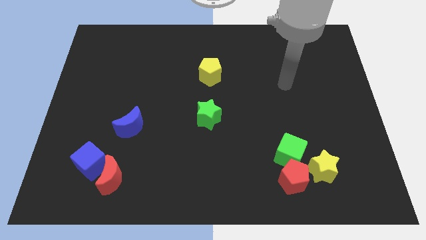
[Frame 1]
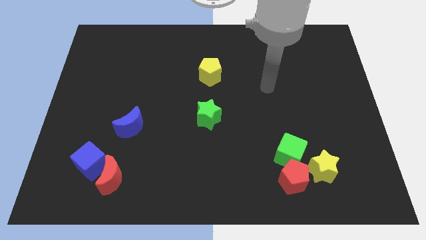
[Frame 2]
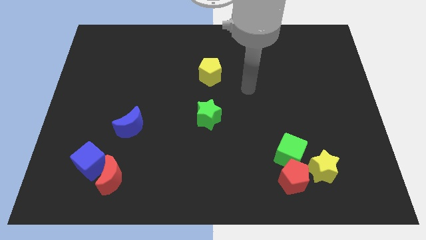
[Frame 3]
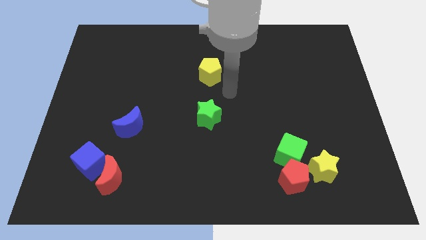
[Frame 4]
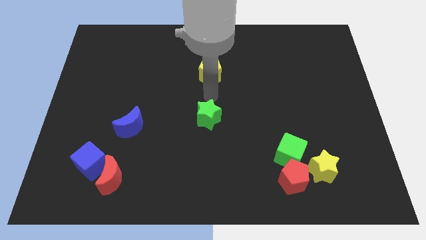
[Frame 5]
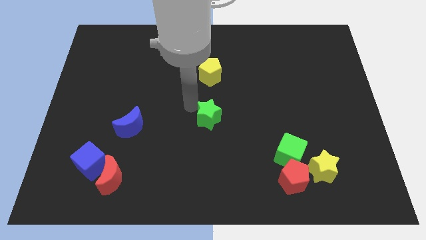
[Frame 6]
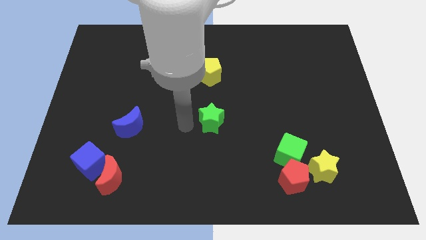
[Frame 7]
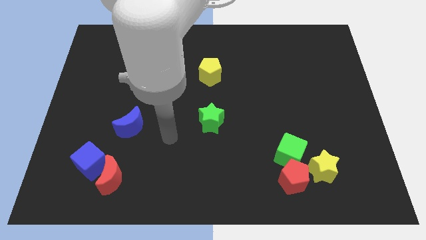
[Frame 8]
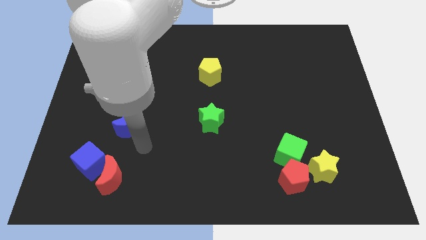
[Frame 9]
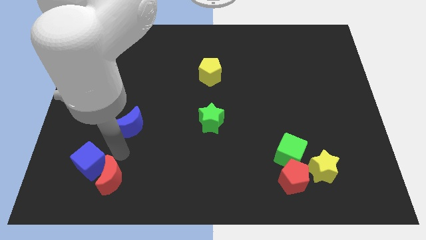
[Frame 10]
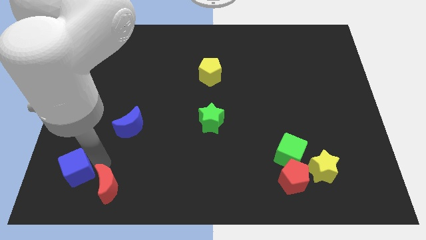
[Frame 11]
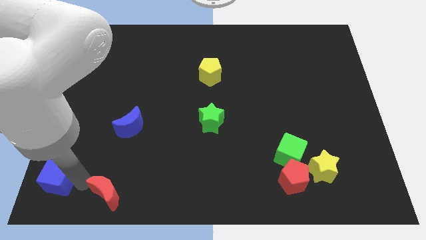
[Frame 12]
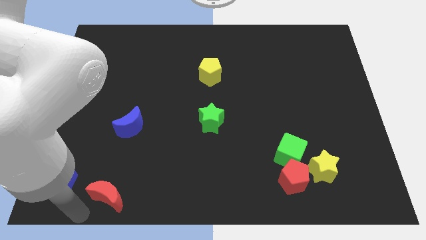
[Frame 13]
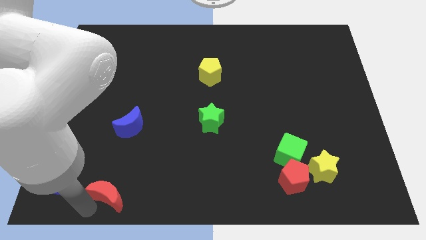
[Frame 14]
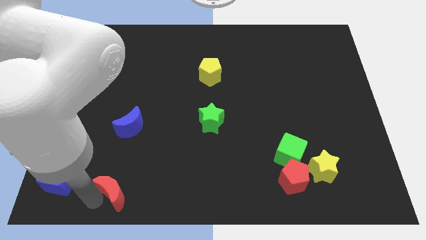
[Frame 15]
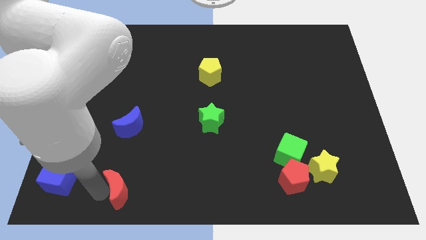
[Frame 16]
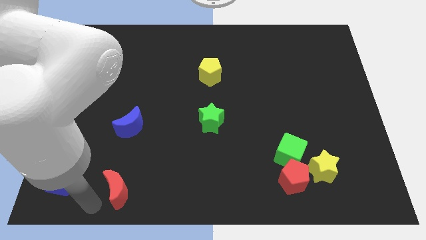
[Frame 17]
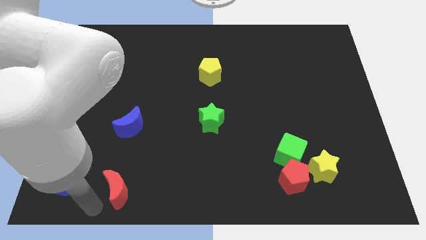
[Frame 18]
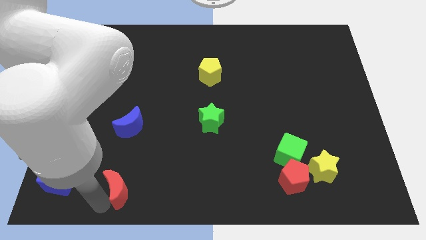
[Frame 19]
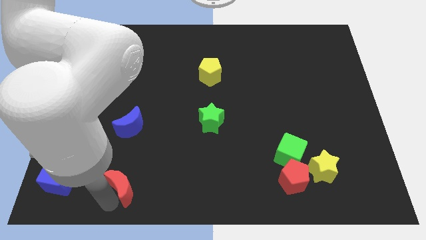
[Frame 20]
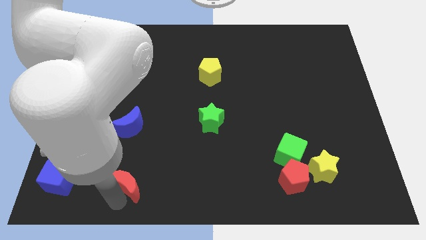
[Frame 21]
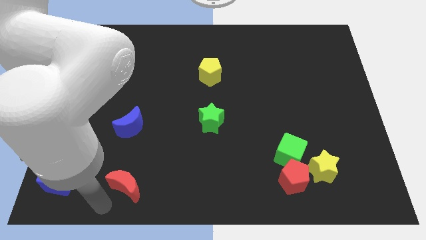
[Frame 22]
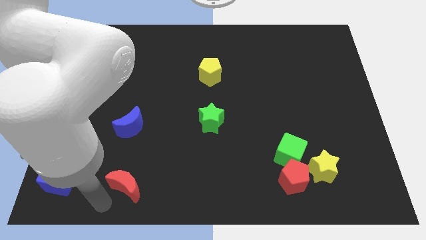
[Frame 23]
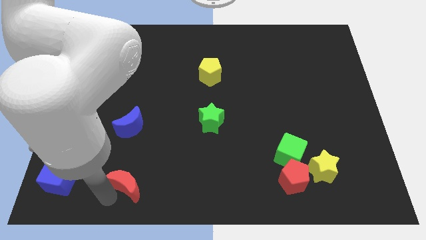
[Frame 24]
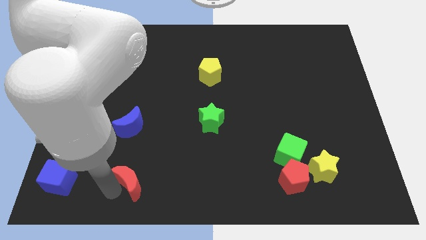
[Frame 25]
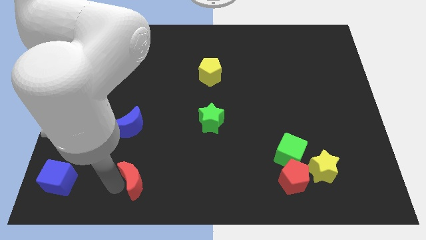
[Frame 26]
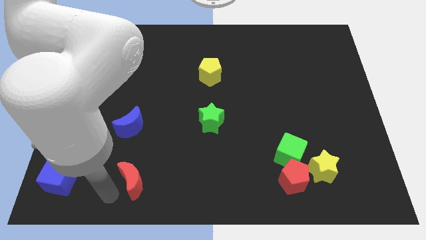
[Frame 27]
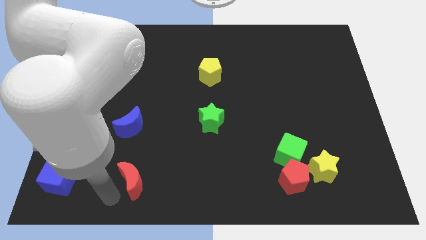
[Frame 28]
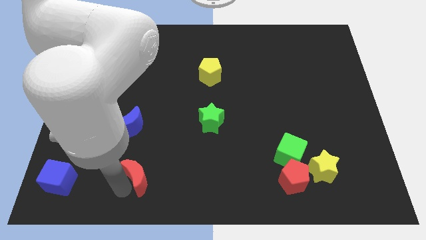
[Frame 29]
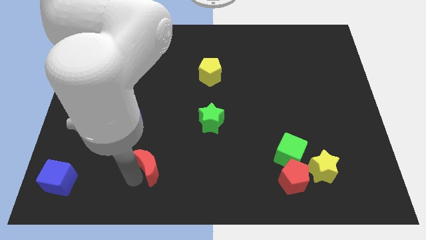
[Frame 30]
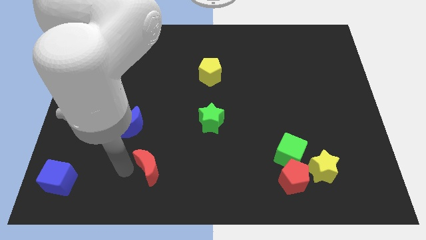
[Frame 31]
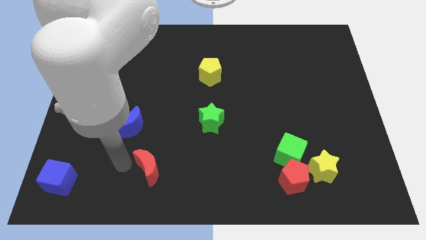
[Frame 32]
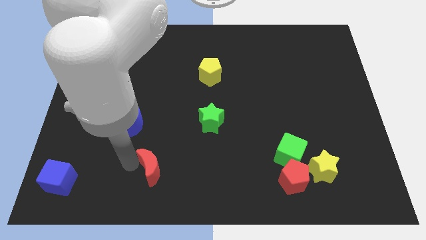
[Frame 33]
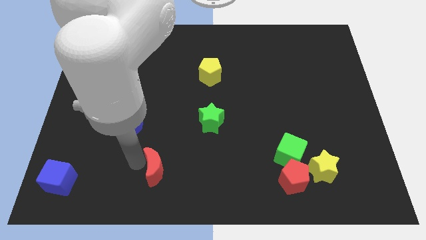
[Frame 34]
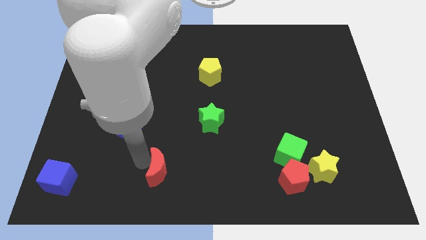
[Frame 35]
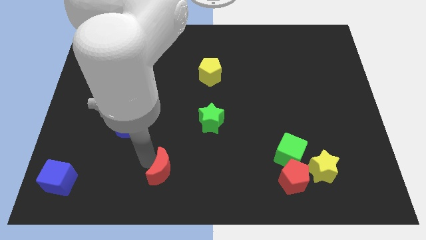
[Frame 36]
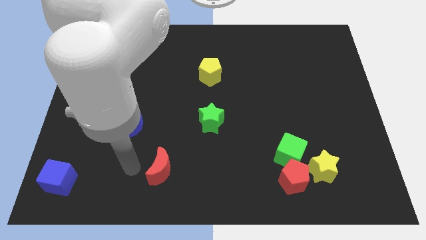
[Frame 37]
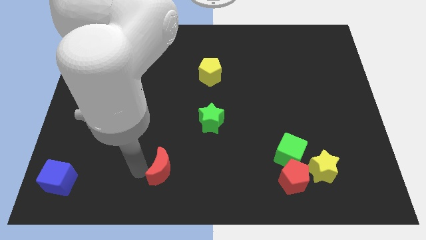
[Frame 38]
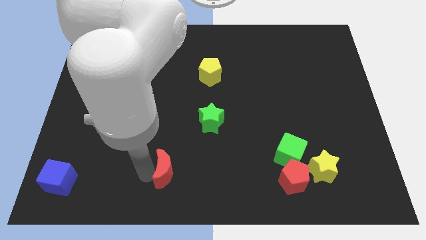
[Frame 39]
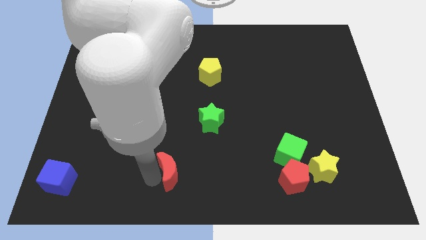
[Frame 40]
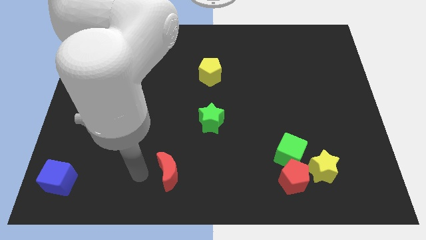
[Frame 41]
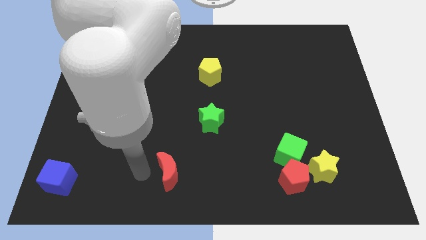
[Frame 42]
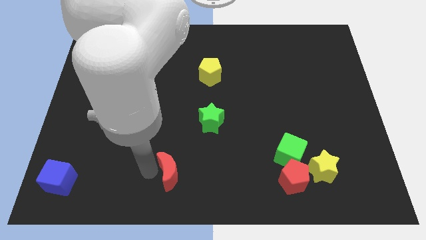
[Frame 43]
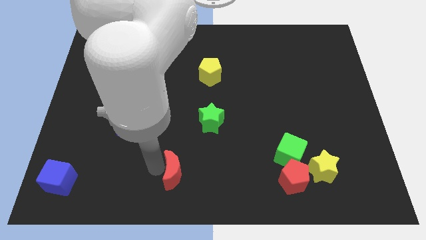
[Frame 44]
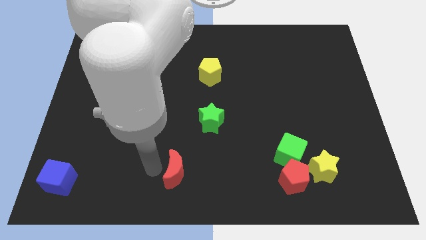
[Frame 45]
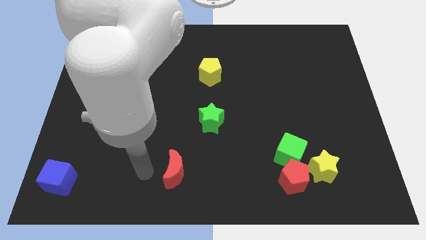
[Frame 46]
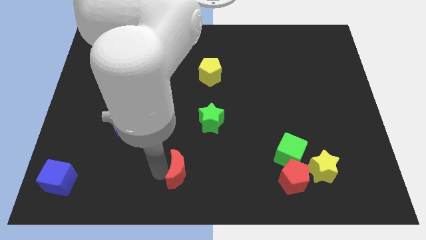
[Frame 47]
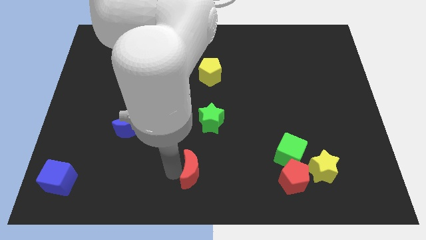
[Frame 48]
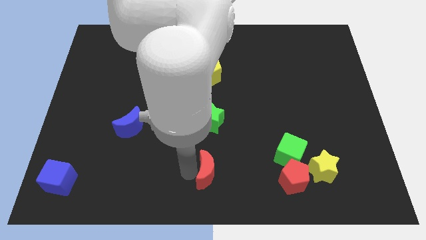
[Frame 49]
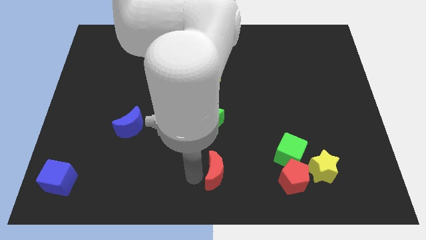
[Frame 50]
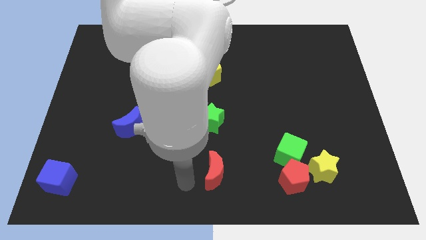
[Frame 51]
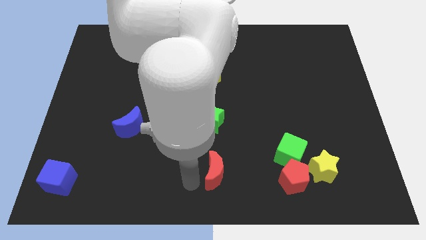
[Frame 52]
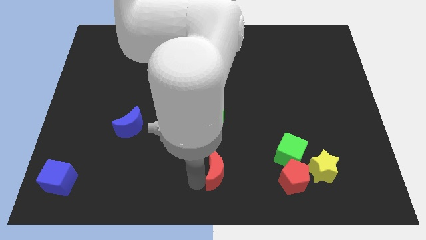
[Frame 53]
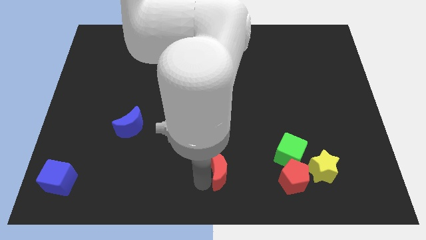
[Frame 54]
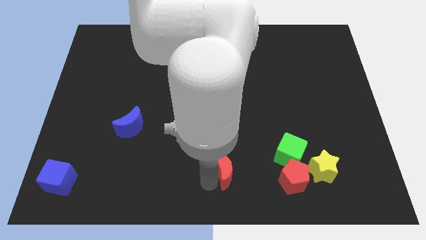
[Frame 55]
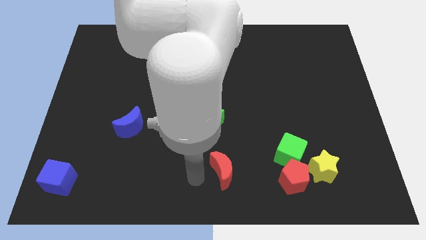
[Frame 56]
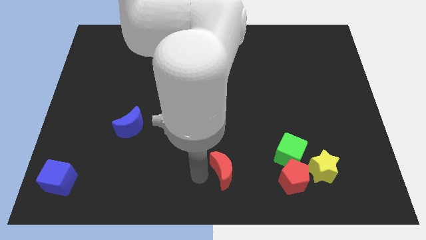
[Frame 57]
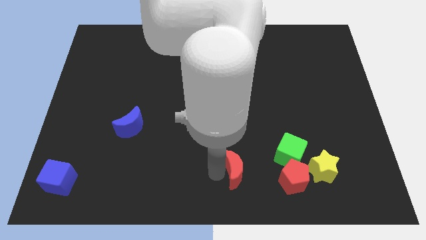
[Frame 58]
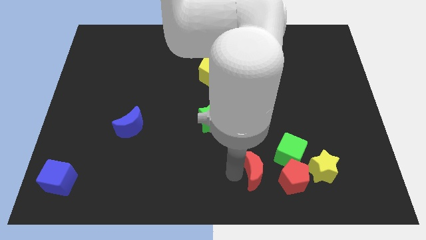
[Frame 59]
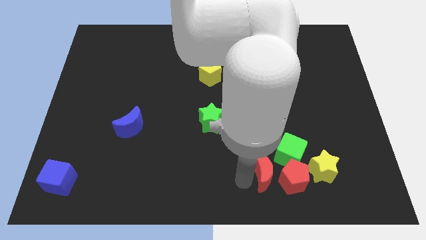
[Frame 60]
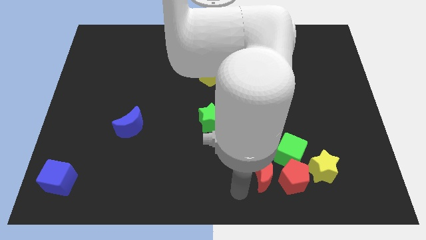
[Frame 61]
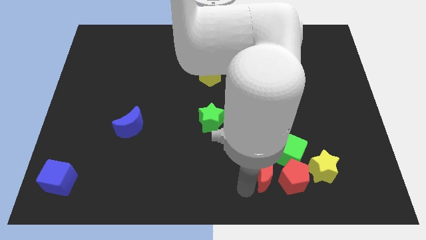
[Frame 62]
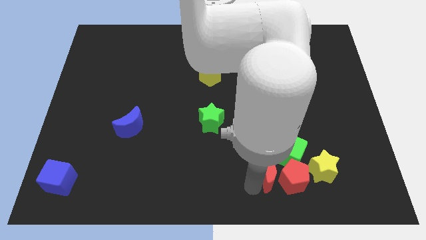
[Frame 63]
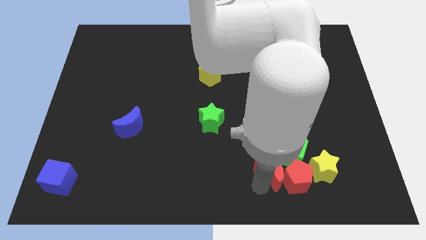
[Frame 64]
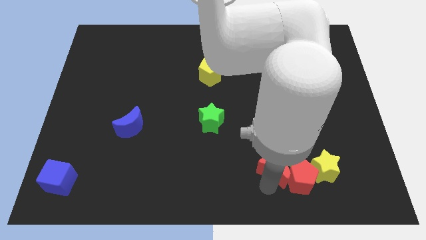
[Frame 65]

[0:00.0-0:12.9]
slide the red moon towards the green cube

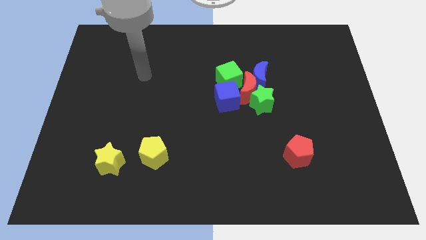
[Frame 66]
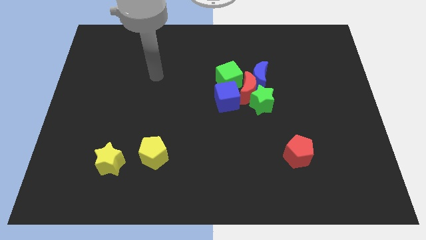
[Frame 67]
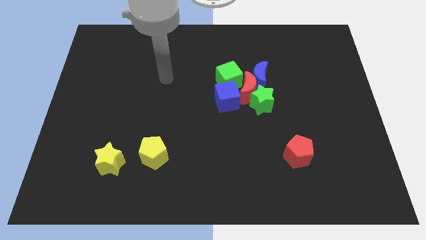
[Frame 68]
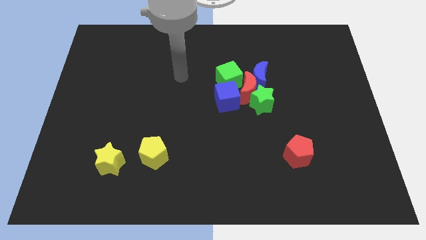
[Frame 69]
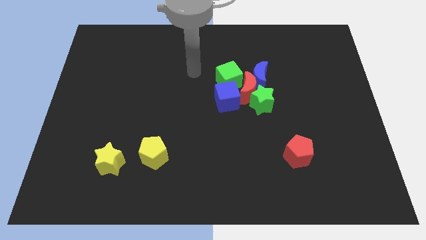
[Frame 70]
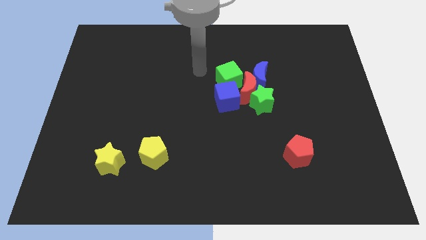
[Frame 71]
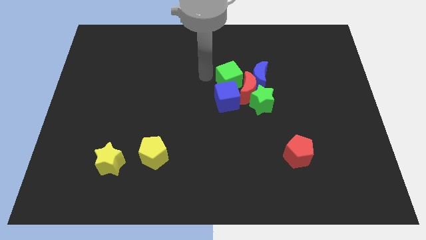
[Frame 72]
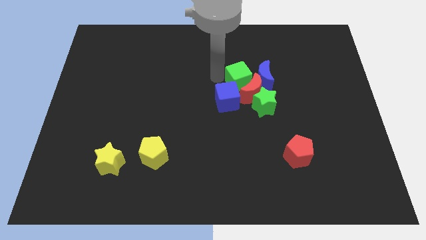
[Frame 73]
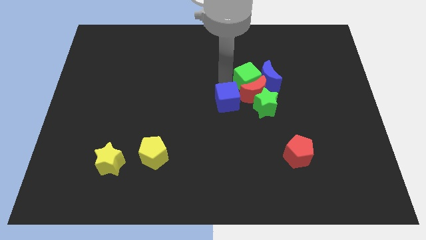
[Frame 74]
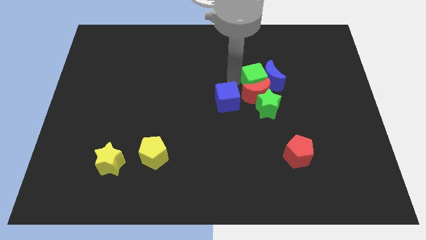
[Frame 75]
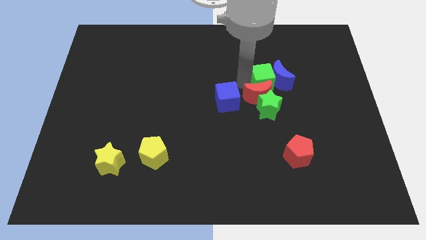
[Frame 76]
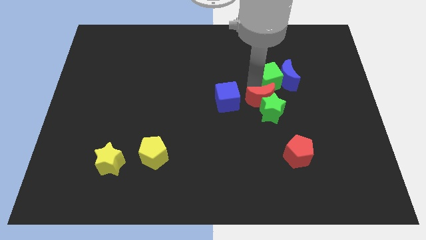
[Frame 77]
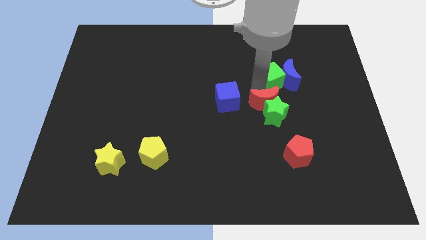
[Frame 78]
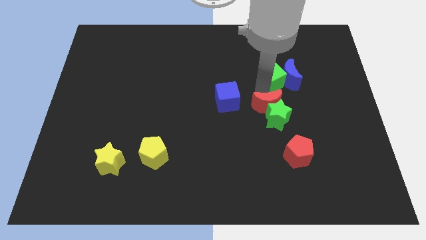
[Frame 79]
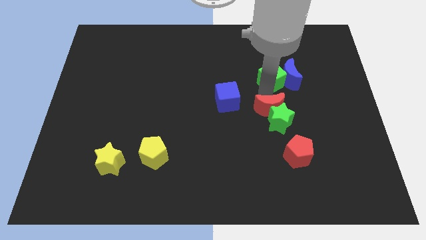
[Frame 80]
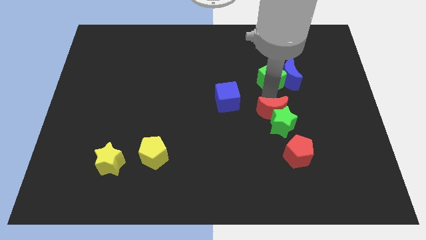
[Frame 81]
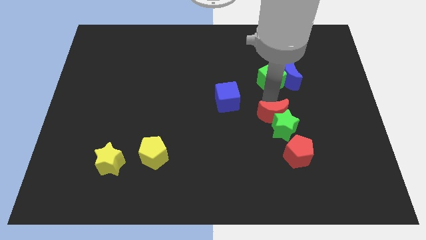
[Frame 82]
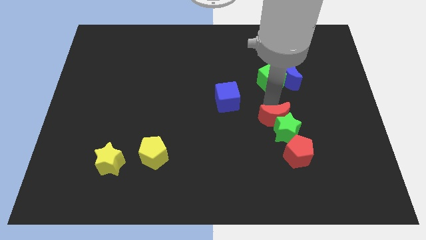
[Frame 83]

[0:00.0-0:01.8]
put the green star next to the red pentagon
